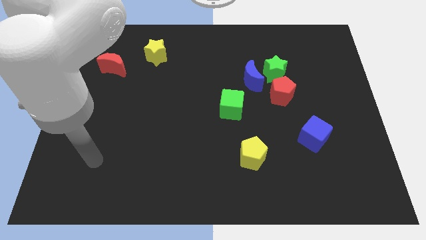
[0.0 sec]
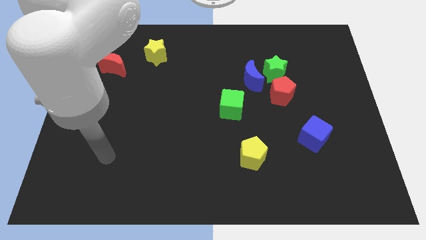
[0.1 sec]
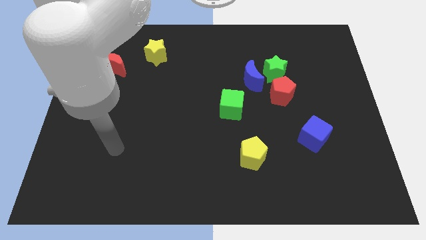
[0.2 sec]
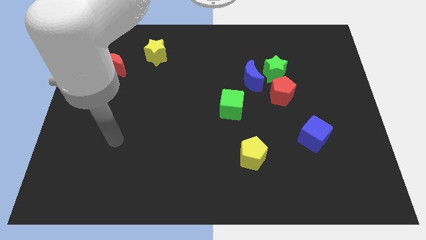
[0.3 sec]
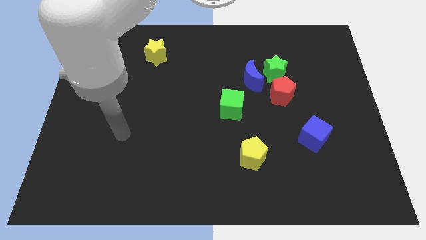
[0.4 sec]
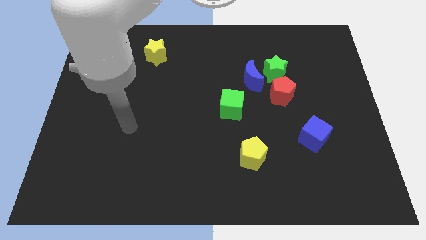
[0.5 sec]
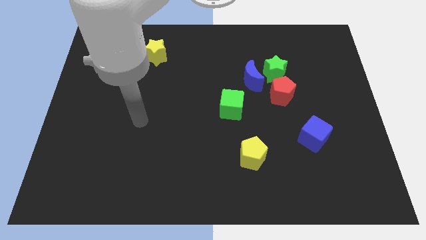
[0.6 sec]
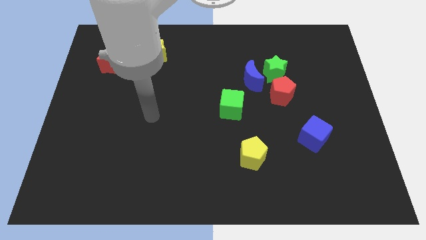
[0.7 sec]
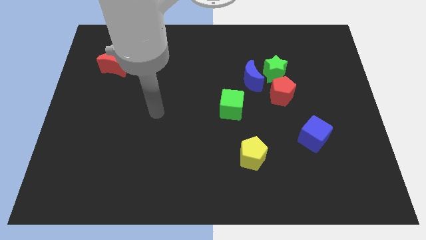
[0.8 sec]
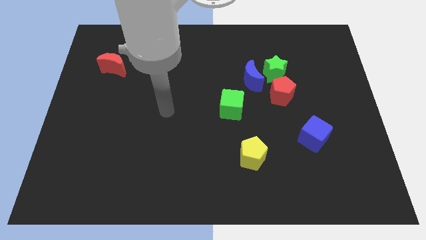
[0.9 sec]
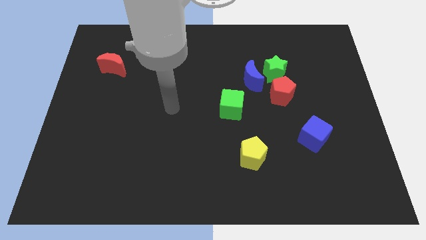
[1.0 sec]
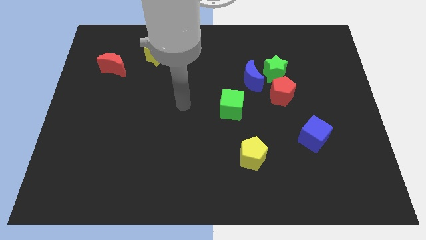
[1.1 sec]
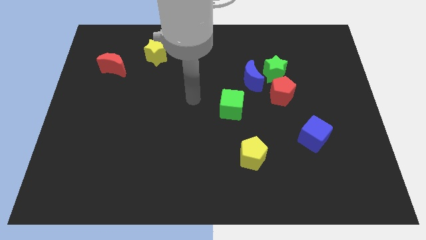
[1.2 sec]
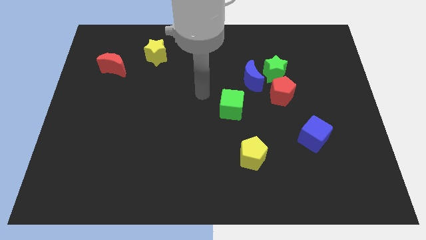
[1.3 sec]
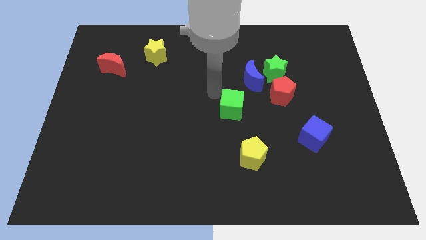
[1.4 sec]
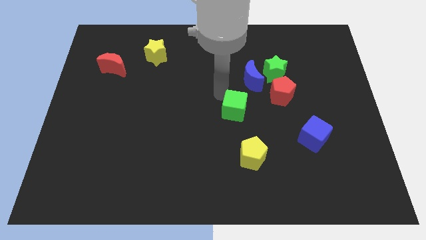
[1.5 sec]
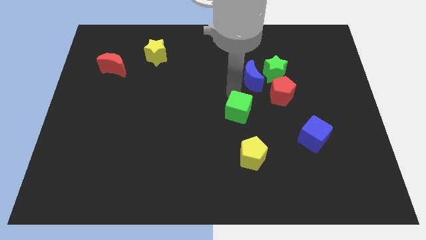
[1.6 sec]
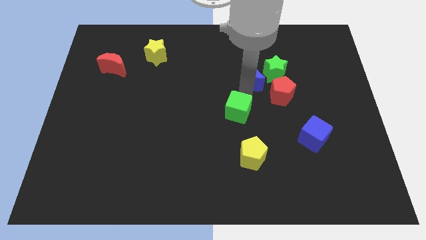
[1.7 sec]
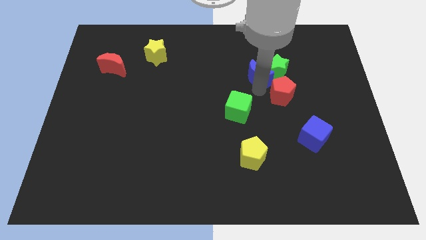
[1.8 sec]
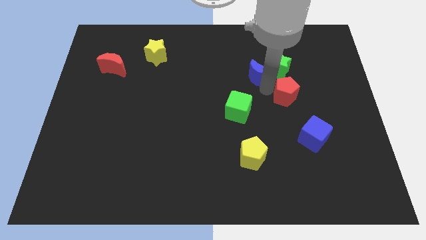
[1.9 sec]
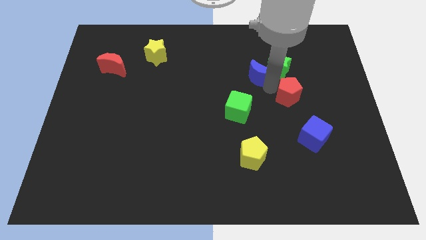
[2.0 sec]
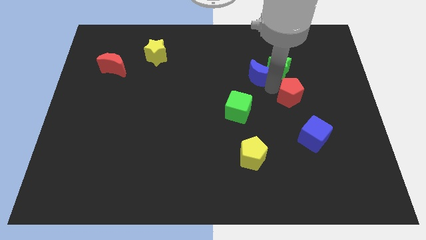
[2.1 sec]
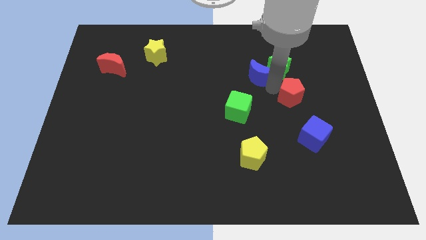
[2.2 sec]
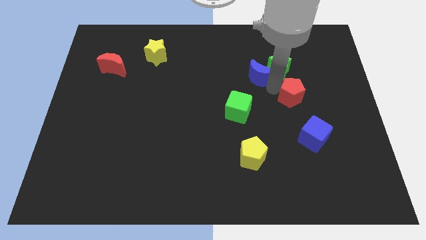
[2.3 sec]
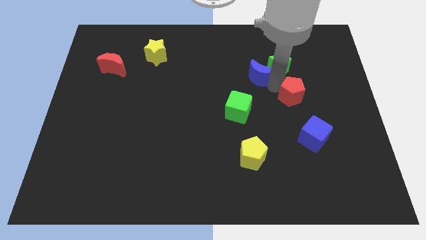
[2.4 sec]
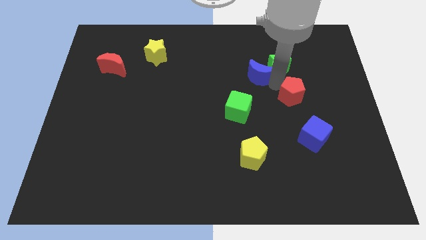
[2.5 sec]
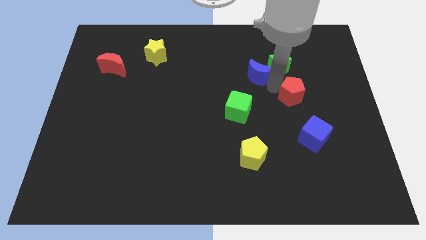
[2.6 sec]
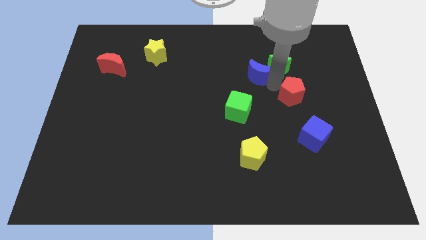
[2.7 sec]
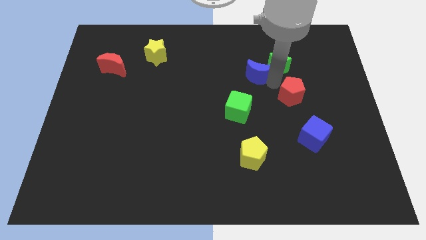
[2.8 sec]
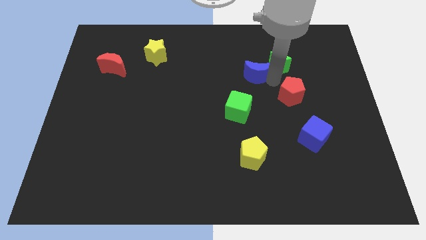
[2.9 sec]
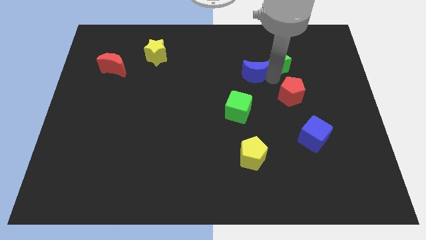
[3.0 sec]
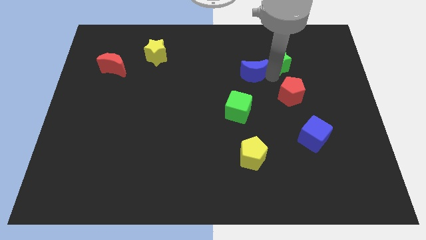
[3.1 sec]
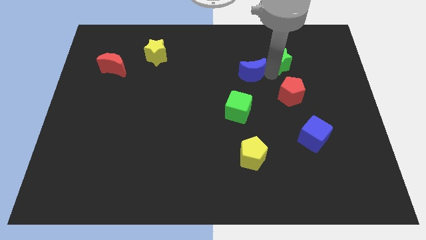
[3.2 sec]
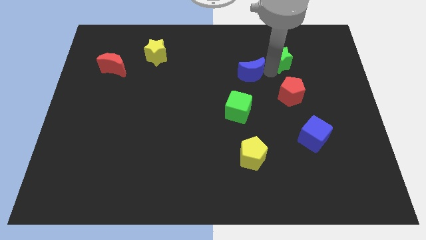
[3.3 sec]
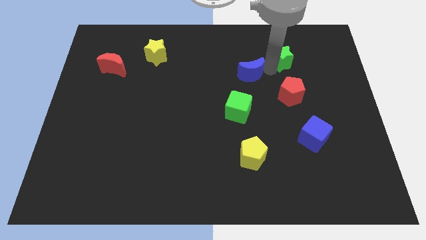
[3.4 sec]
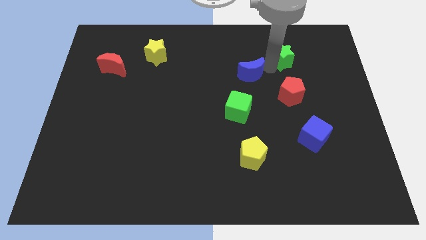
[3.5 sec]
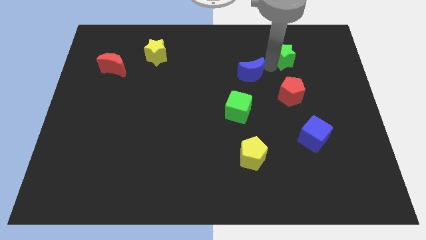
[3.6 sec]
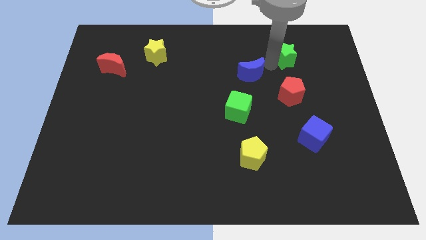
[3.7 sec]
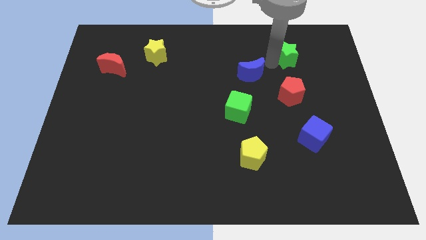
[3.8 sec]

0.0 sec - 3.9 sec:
move the green star away from the blue moon and red pentagon

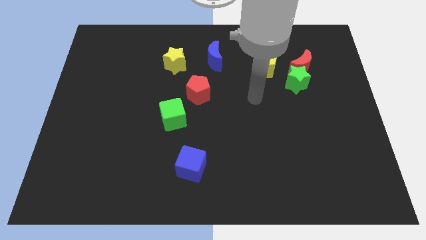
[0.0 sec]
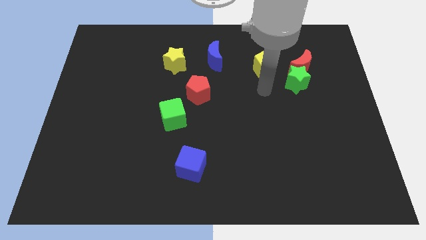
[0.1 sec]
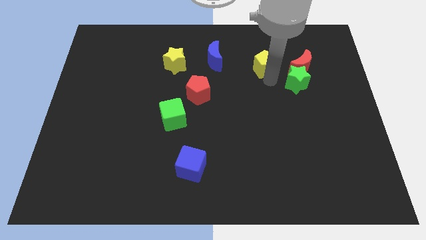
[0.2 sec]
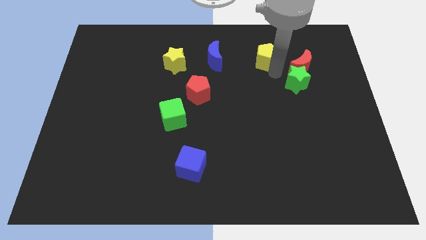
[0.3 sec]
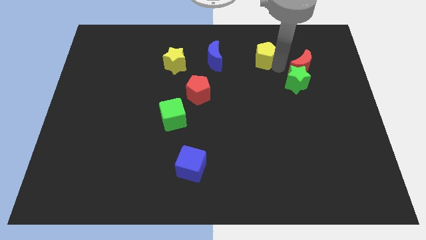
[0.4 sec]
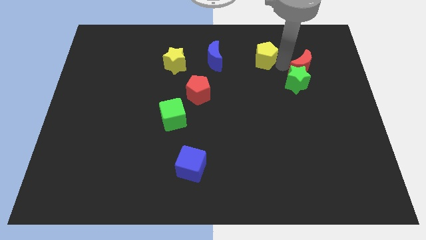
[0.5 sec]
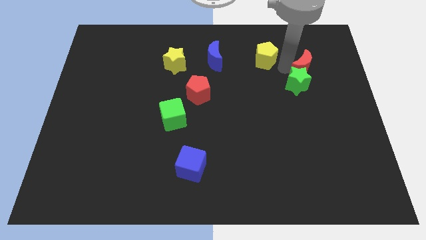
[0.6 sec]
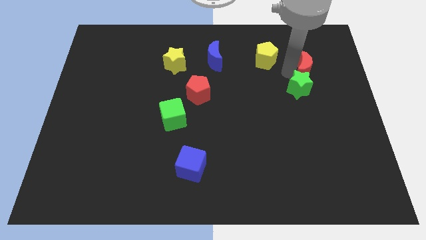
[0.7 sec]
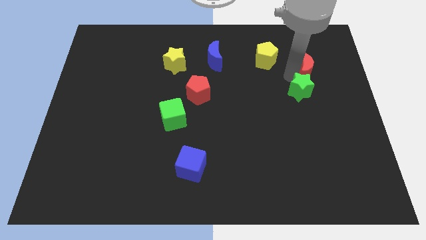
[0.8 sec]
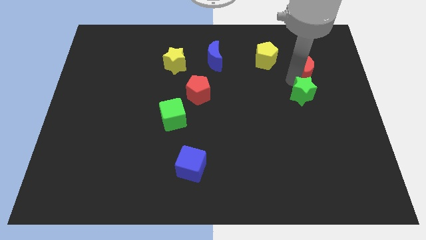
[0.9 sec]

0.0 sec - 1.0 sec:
move the green star away from the red moon and yellow pentagon

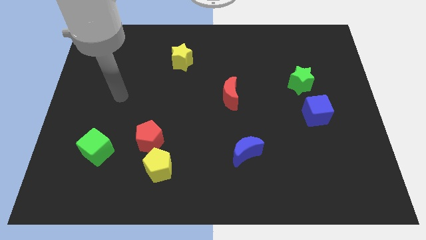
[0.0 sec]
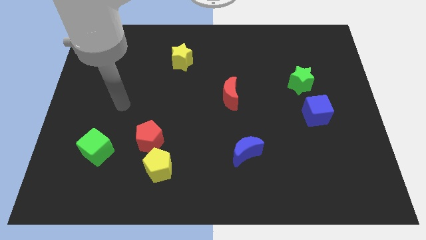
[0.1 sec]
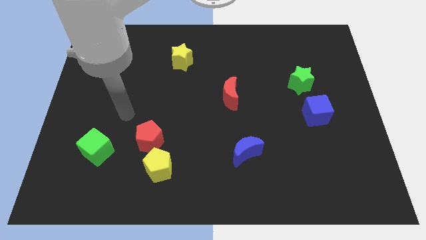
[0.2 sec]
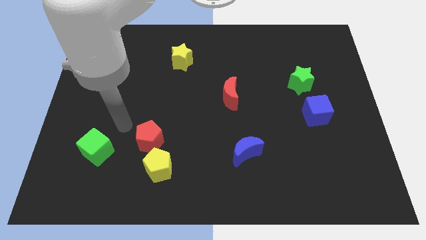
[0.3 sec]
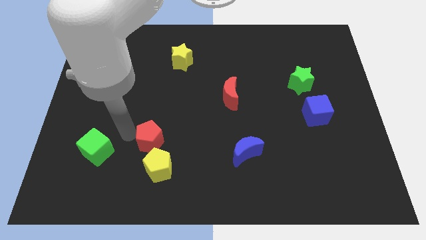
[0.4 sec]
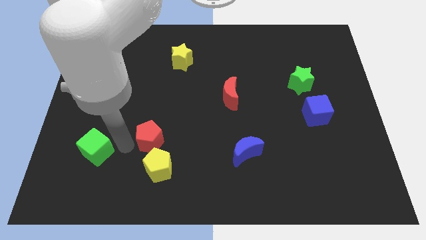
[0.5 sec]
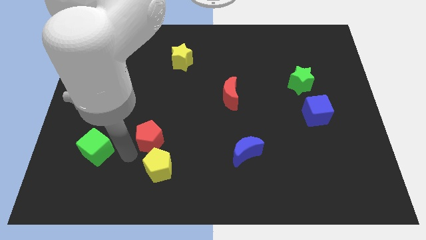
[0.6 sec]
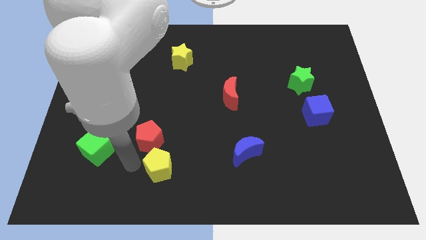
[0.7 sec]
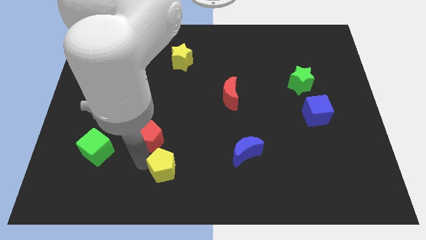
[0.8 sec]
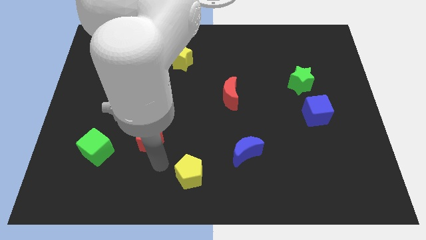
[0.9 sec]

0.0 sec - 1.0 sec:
separate the red pentagon from the yellow pentagon

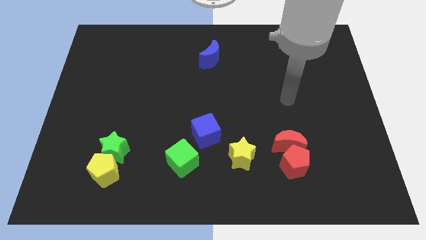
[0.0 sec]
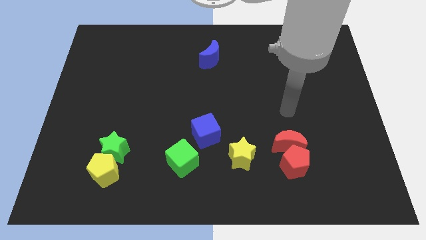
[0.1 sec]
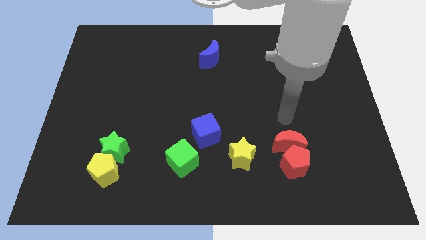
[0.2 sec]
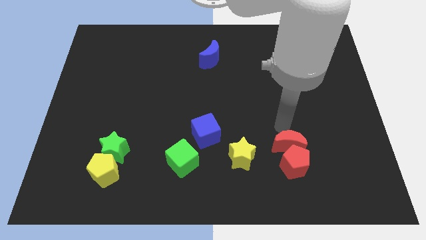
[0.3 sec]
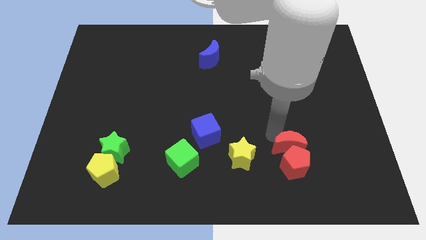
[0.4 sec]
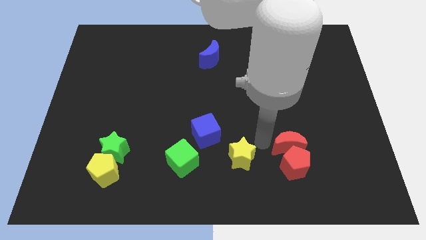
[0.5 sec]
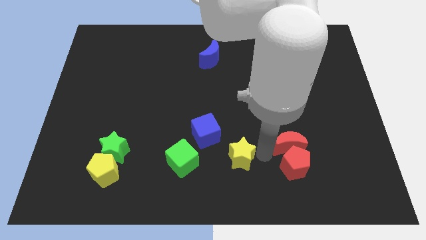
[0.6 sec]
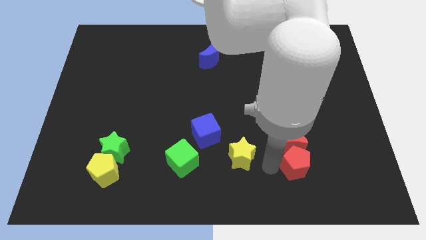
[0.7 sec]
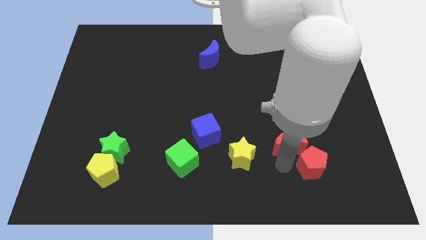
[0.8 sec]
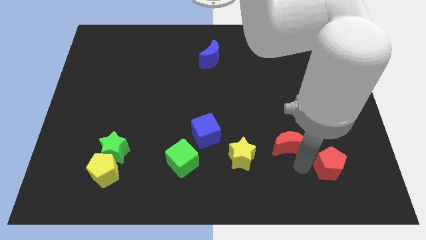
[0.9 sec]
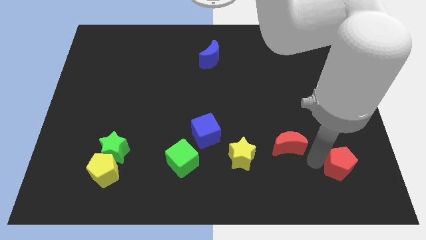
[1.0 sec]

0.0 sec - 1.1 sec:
separate the red moon from the red pentagon

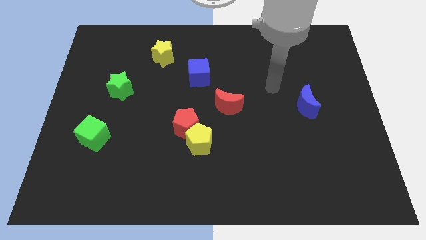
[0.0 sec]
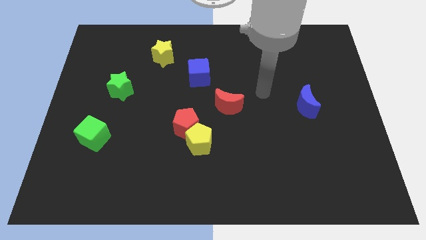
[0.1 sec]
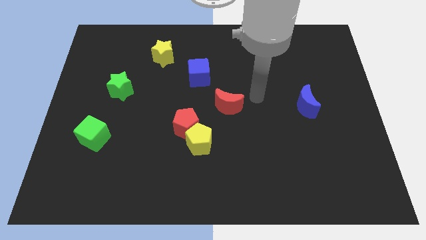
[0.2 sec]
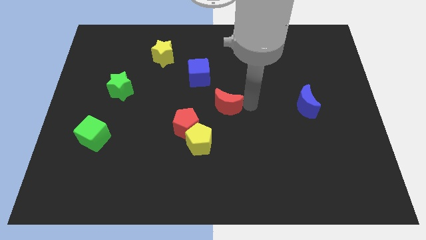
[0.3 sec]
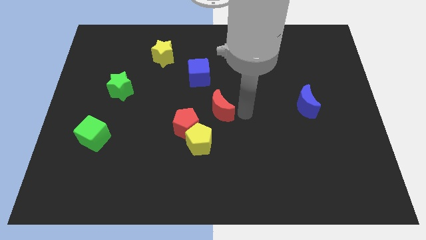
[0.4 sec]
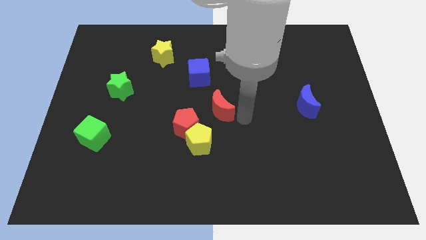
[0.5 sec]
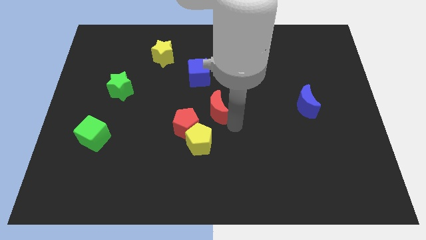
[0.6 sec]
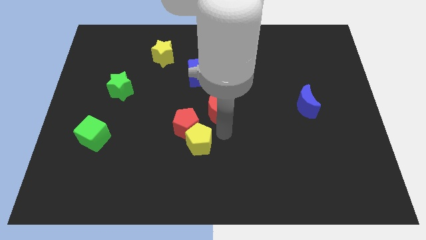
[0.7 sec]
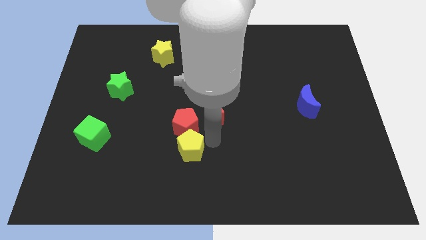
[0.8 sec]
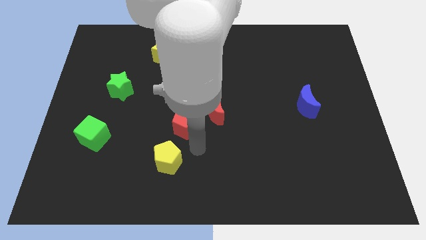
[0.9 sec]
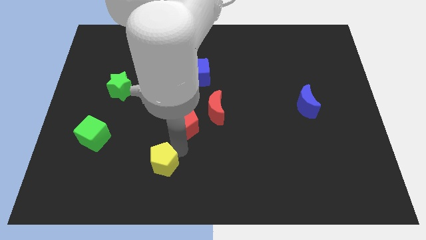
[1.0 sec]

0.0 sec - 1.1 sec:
move the red pentagon away from the yellow pentagon

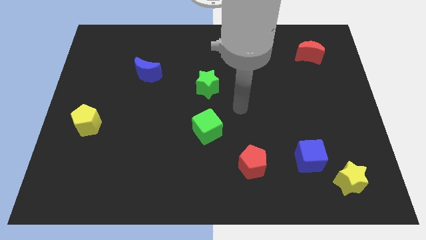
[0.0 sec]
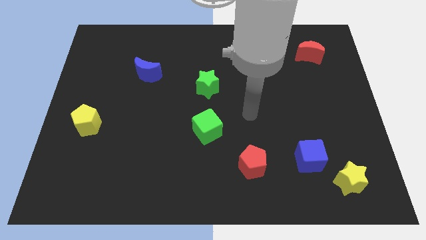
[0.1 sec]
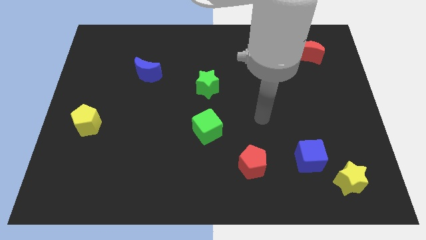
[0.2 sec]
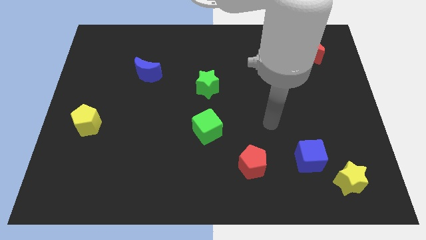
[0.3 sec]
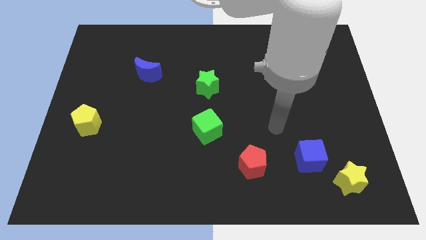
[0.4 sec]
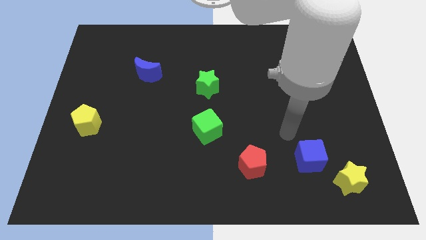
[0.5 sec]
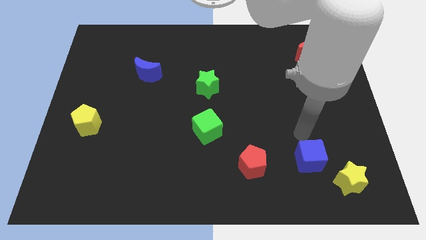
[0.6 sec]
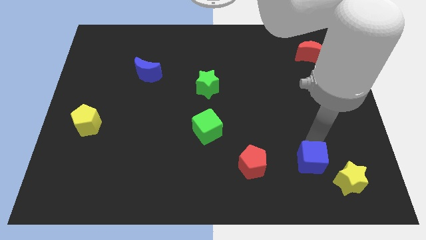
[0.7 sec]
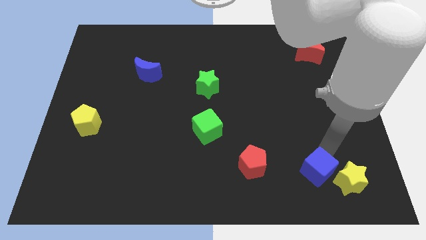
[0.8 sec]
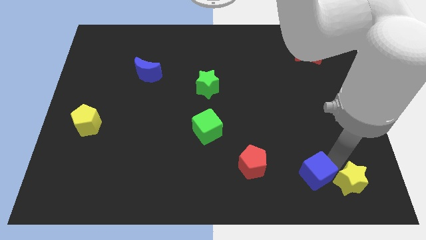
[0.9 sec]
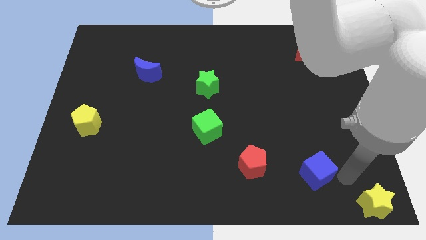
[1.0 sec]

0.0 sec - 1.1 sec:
separate the blue cube from the yellow star
